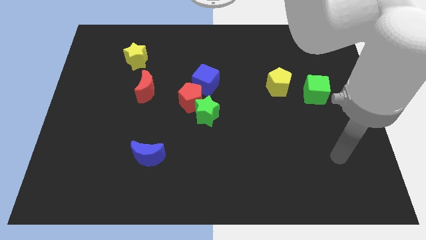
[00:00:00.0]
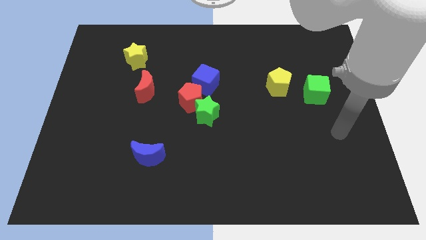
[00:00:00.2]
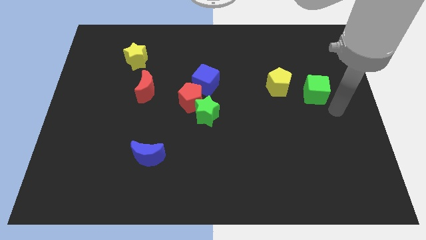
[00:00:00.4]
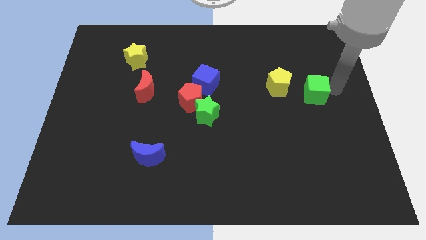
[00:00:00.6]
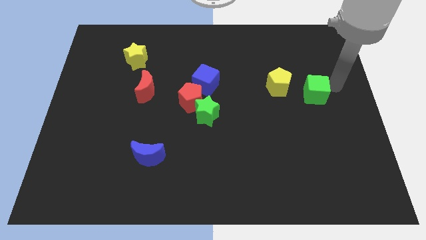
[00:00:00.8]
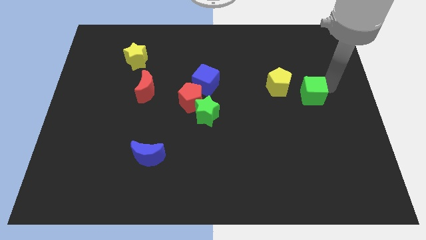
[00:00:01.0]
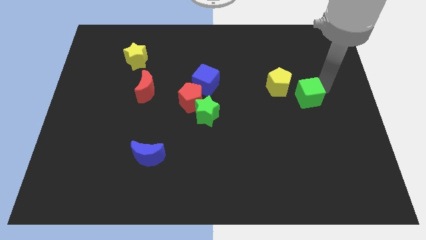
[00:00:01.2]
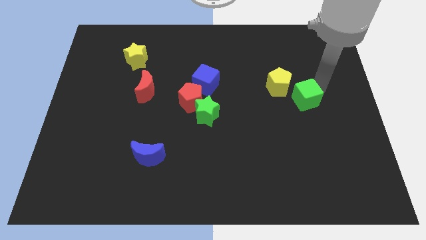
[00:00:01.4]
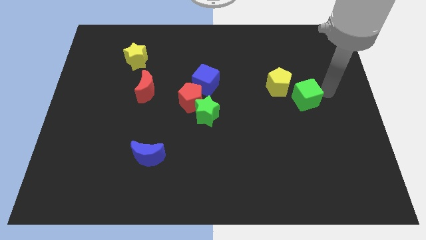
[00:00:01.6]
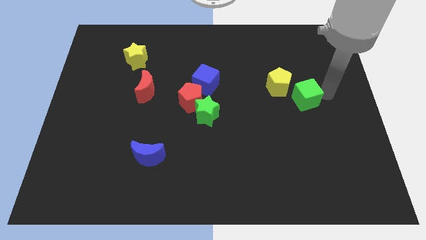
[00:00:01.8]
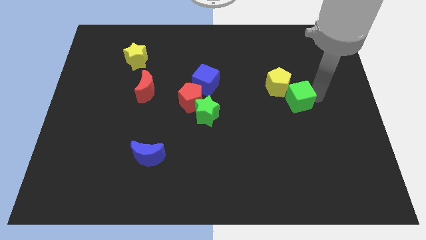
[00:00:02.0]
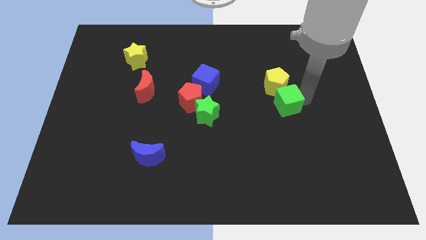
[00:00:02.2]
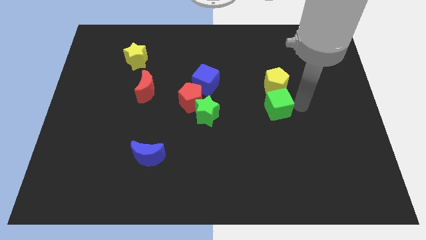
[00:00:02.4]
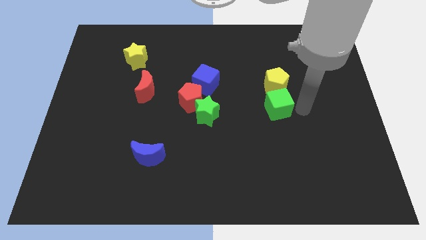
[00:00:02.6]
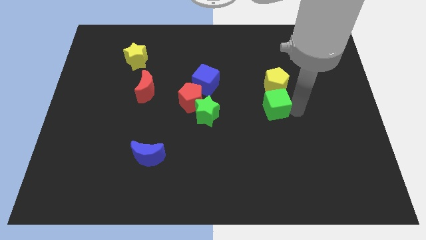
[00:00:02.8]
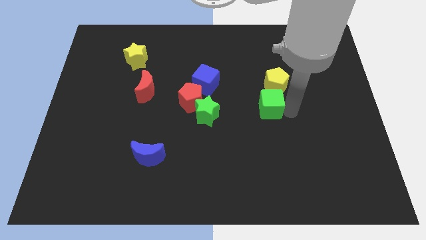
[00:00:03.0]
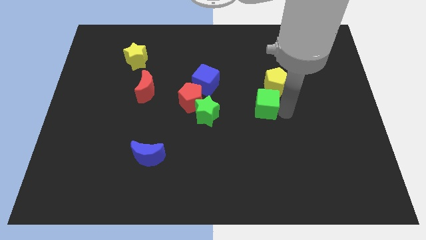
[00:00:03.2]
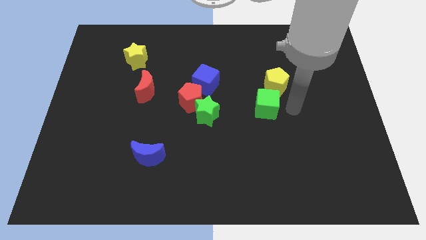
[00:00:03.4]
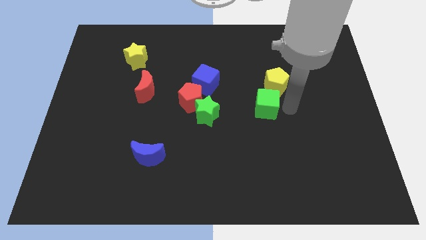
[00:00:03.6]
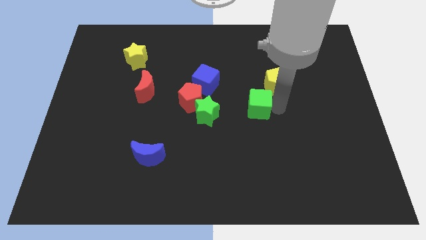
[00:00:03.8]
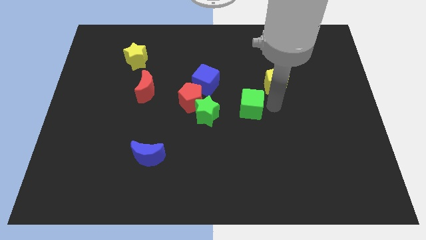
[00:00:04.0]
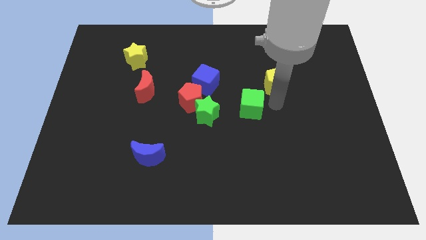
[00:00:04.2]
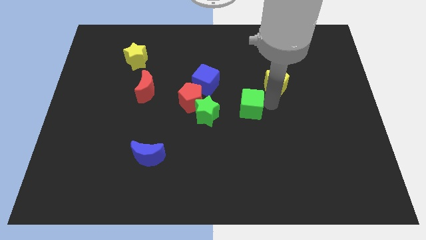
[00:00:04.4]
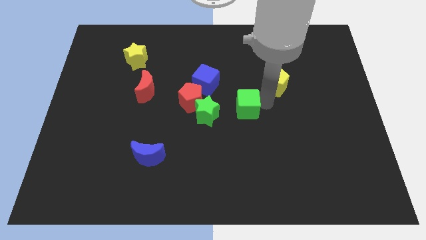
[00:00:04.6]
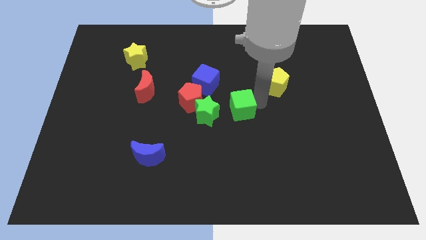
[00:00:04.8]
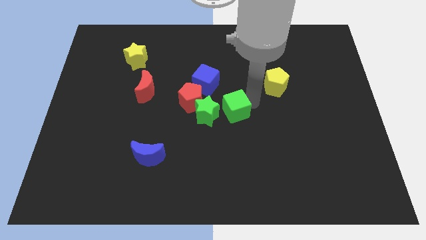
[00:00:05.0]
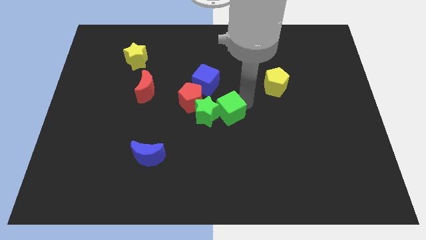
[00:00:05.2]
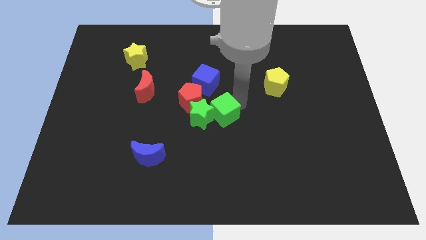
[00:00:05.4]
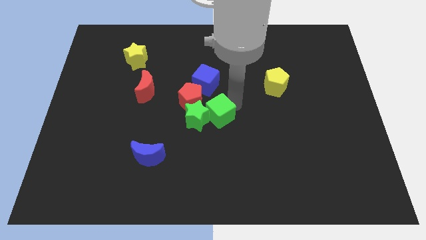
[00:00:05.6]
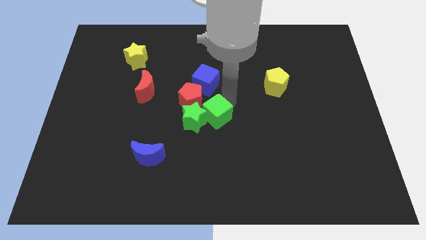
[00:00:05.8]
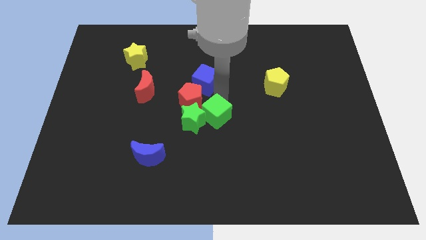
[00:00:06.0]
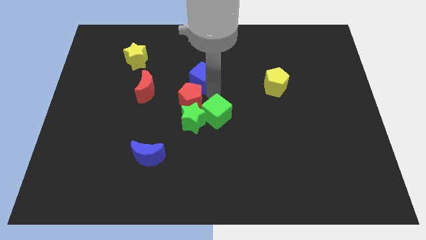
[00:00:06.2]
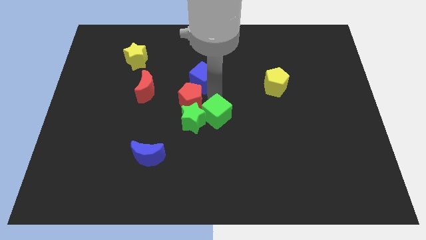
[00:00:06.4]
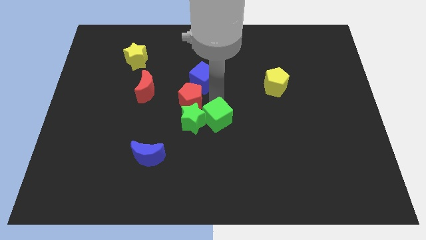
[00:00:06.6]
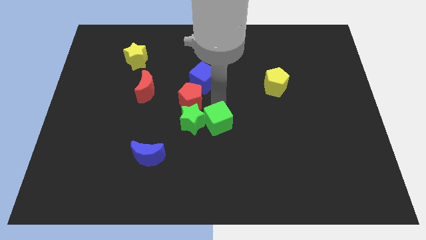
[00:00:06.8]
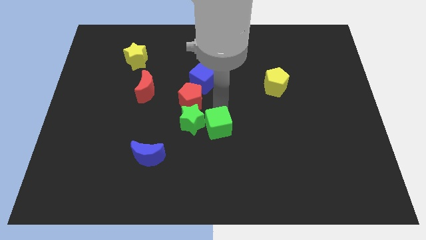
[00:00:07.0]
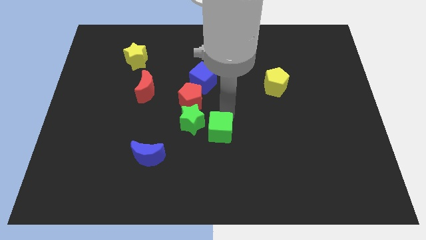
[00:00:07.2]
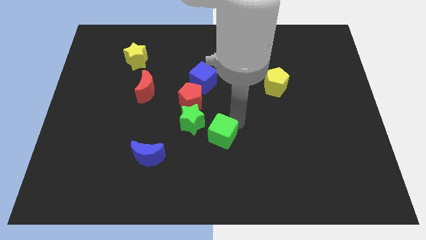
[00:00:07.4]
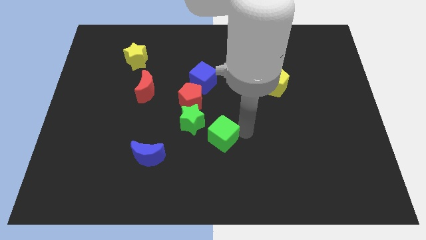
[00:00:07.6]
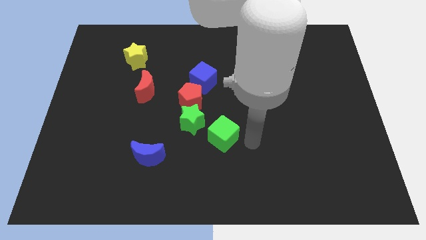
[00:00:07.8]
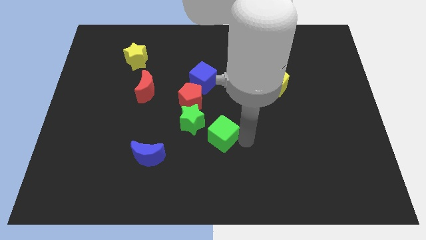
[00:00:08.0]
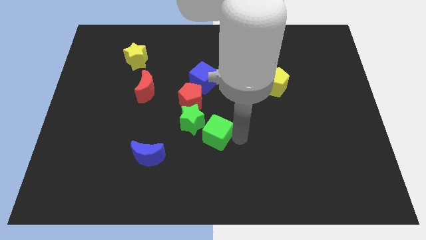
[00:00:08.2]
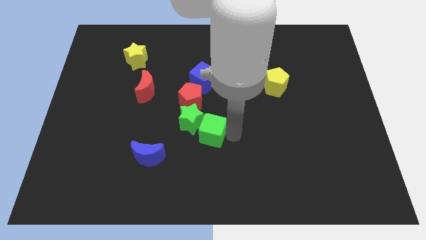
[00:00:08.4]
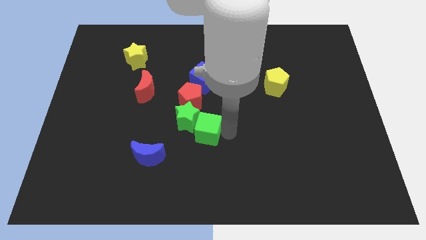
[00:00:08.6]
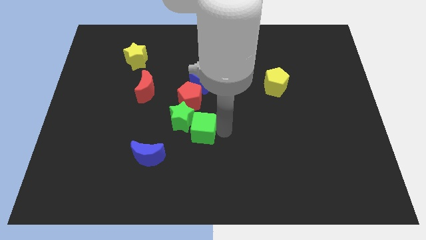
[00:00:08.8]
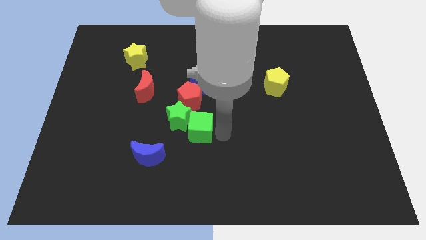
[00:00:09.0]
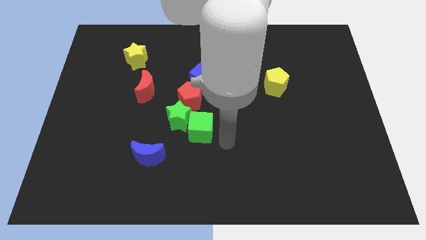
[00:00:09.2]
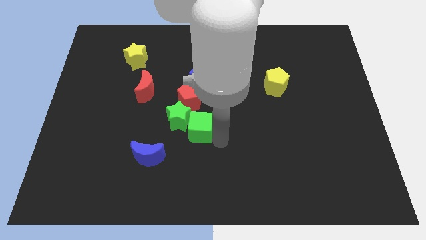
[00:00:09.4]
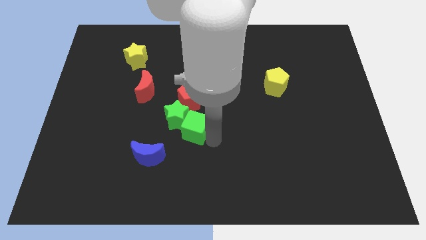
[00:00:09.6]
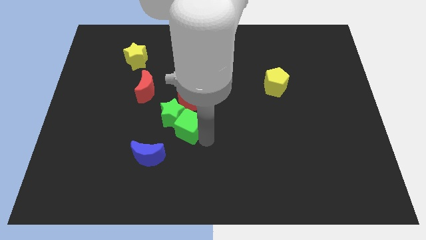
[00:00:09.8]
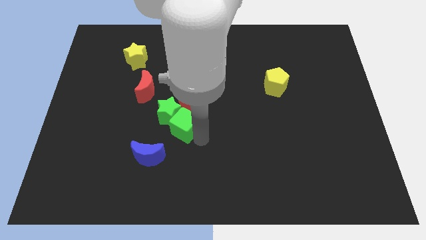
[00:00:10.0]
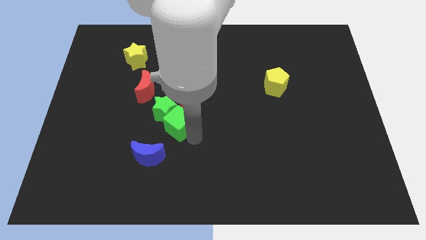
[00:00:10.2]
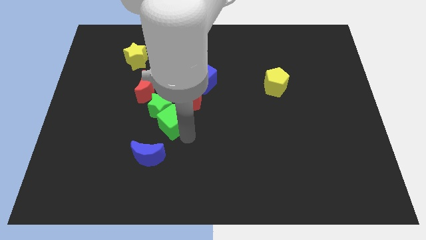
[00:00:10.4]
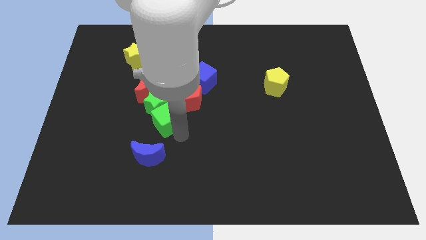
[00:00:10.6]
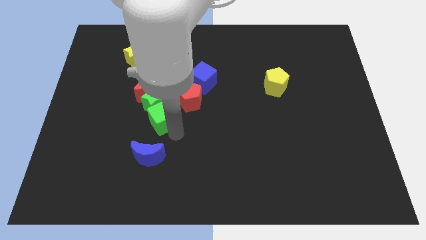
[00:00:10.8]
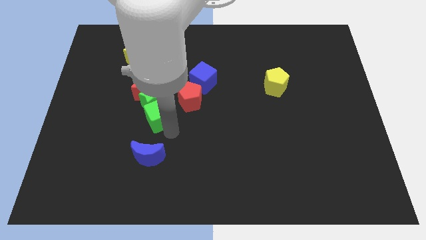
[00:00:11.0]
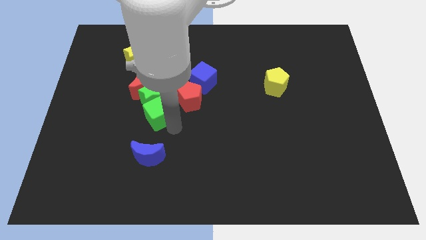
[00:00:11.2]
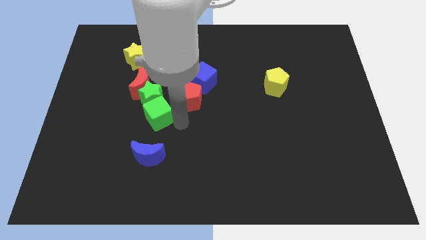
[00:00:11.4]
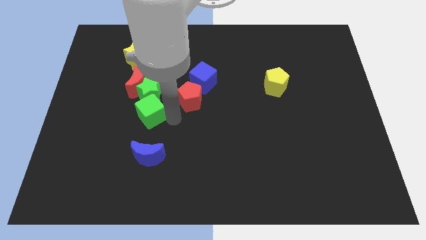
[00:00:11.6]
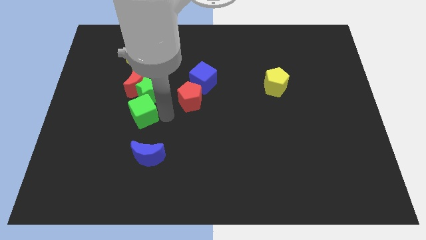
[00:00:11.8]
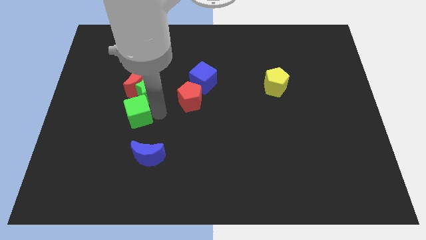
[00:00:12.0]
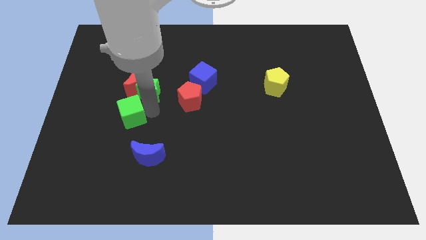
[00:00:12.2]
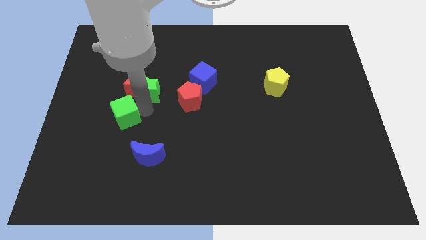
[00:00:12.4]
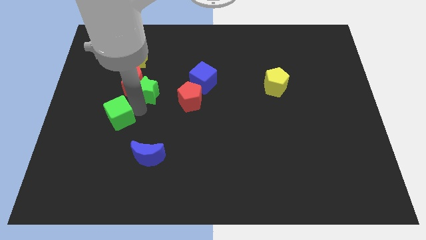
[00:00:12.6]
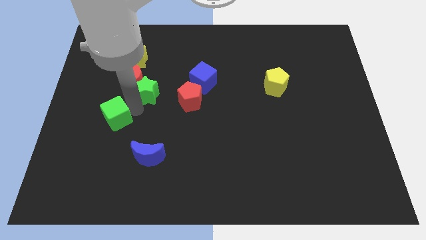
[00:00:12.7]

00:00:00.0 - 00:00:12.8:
move the green cube to the bottom left side of the red moon

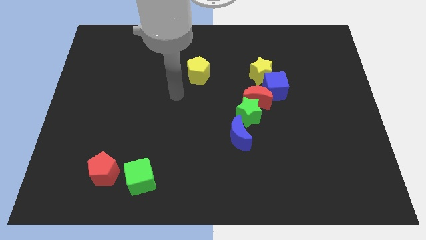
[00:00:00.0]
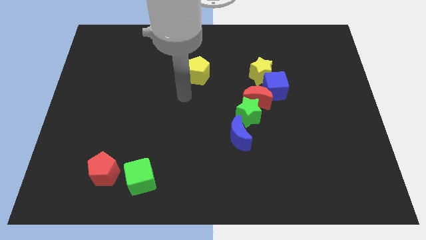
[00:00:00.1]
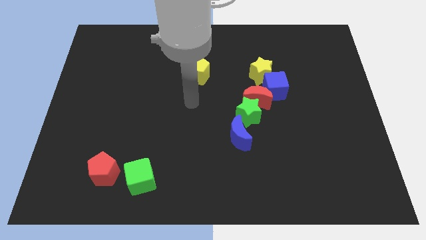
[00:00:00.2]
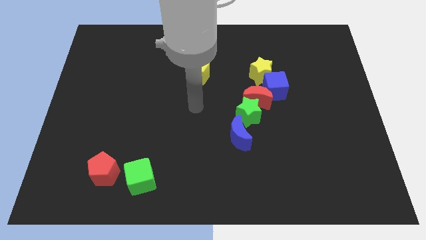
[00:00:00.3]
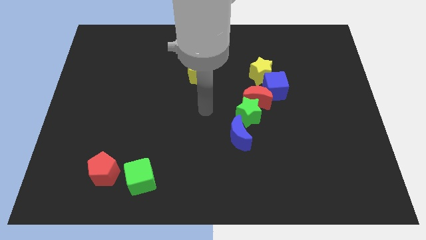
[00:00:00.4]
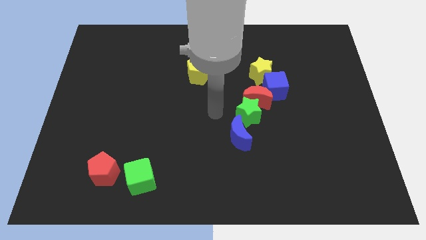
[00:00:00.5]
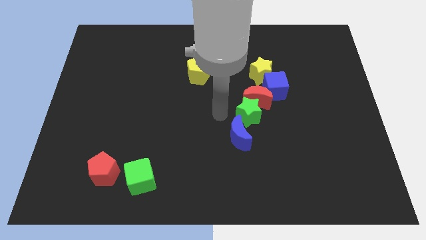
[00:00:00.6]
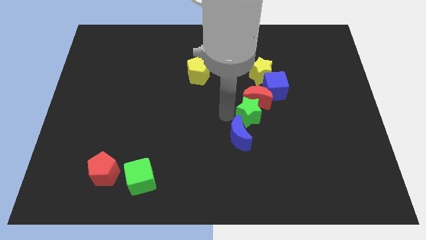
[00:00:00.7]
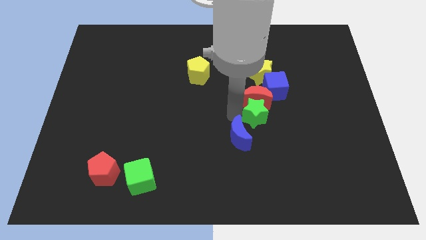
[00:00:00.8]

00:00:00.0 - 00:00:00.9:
push the green star to the bottom right side of the red moon
